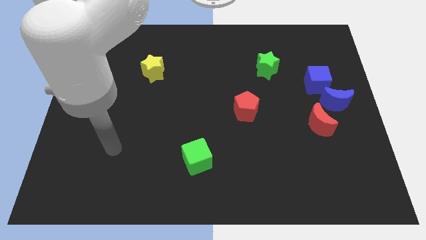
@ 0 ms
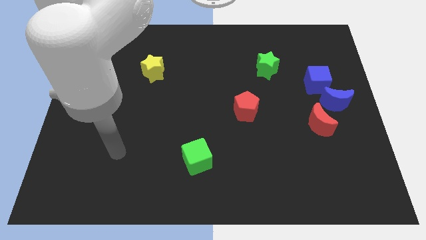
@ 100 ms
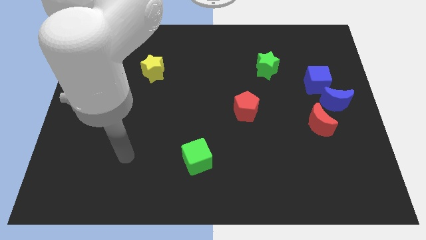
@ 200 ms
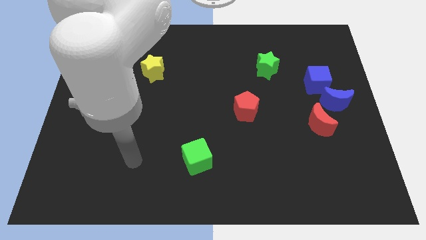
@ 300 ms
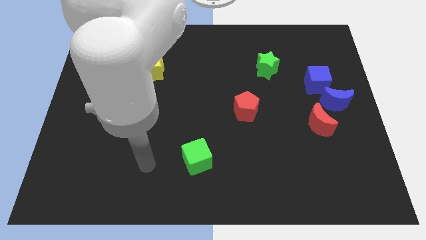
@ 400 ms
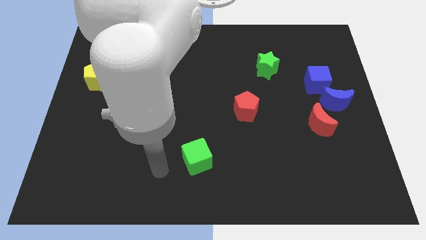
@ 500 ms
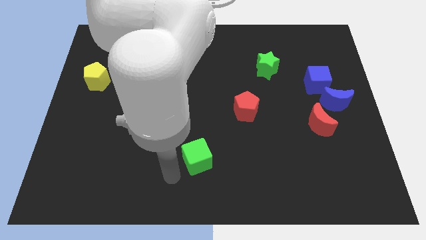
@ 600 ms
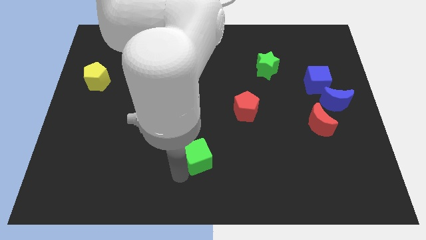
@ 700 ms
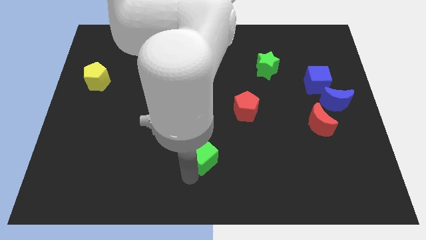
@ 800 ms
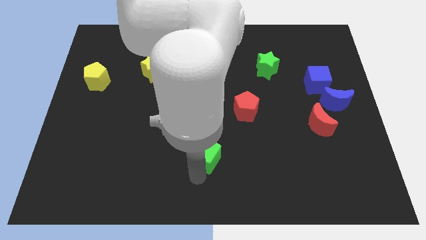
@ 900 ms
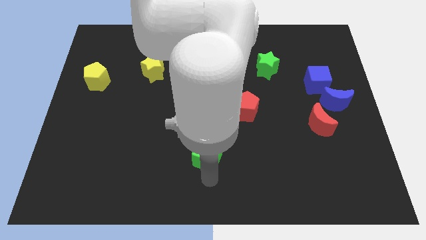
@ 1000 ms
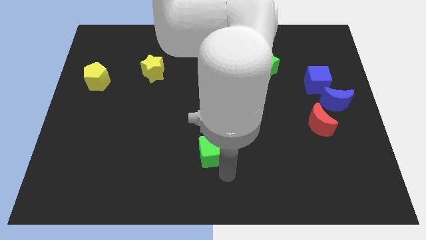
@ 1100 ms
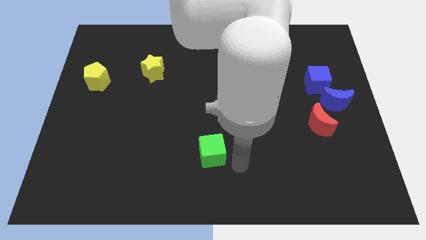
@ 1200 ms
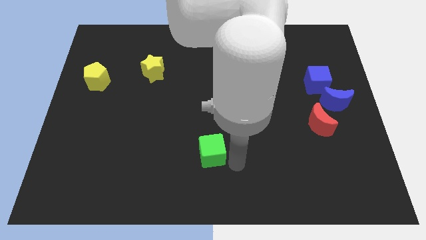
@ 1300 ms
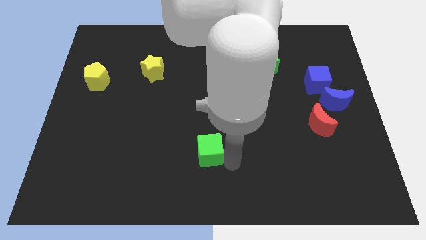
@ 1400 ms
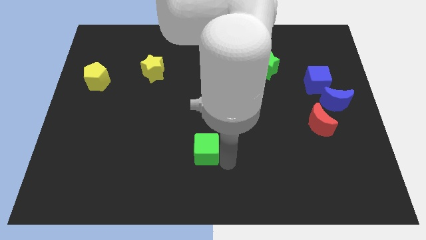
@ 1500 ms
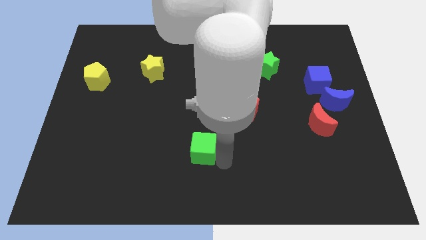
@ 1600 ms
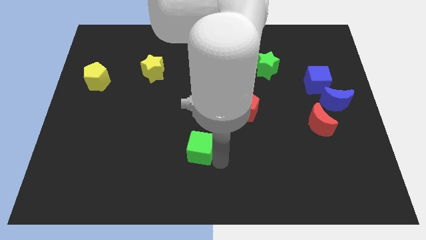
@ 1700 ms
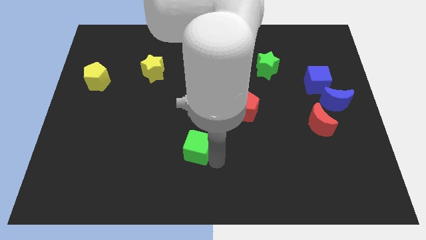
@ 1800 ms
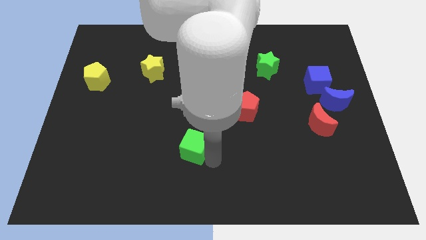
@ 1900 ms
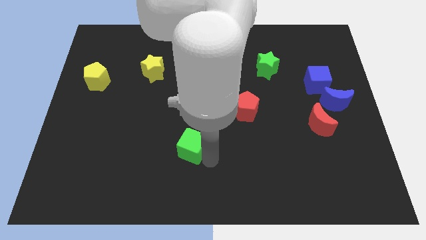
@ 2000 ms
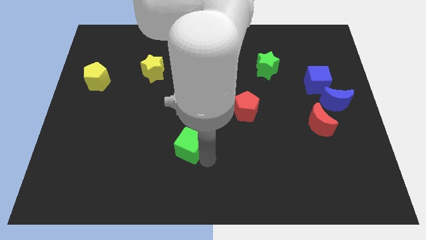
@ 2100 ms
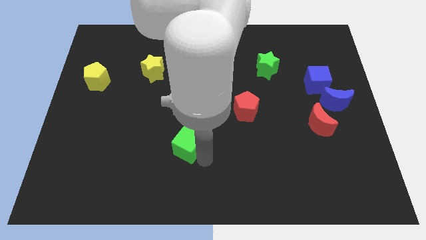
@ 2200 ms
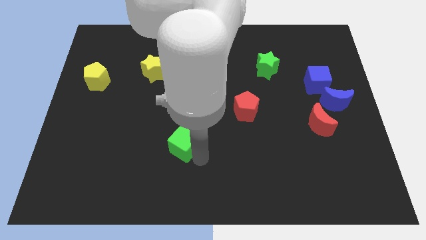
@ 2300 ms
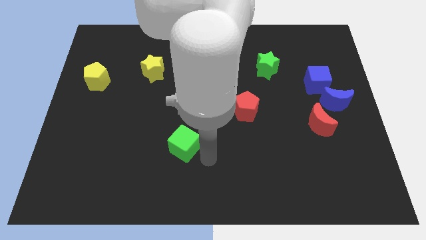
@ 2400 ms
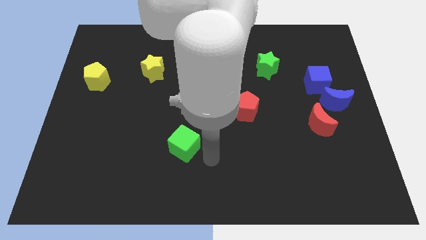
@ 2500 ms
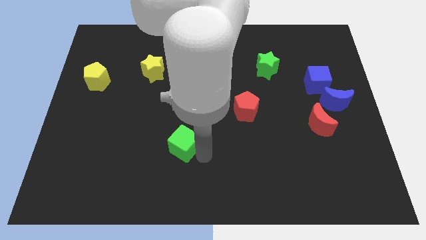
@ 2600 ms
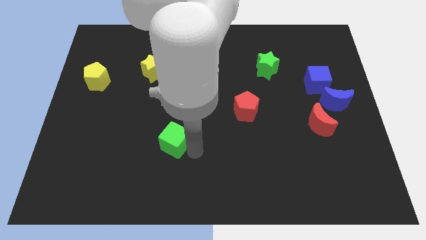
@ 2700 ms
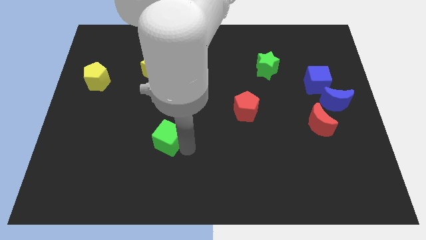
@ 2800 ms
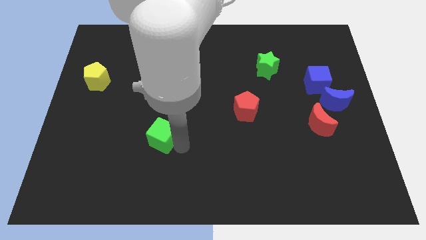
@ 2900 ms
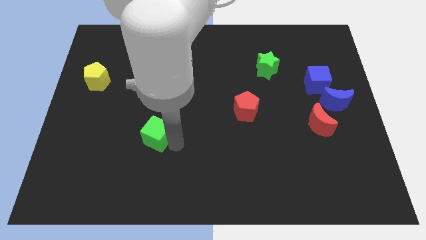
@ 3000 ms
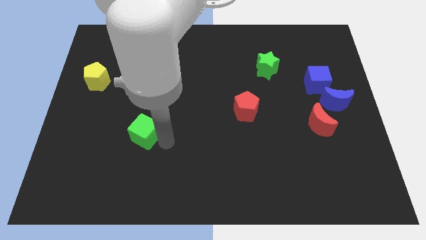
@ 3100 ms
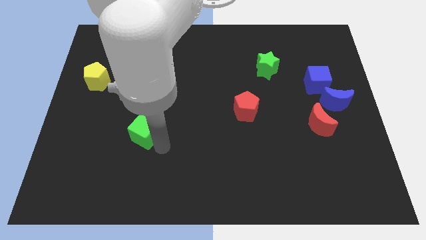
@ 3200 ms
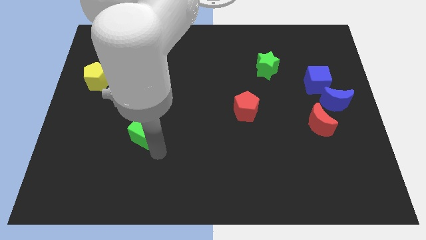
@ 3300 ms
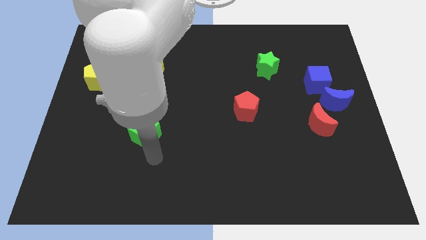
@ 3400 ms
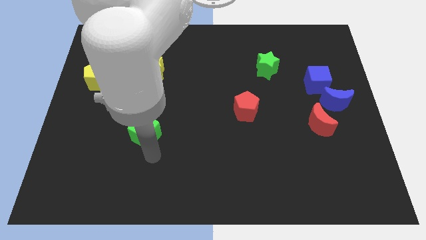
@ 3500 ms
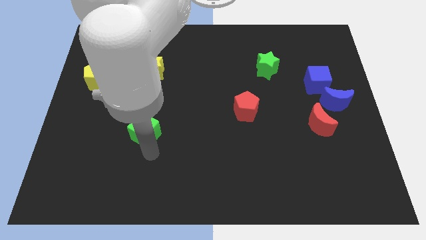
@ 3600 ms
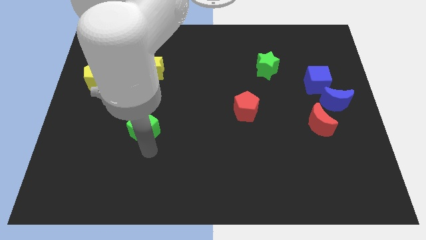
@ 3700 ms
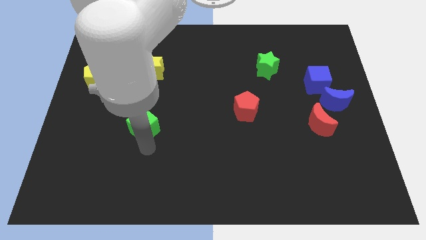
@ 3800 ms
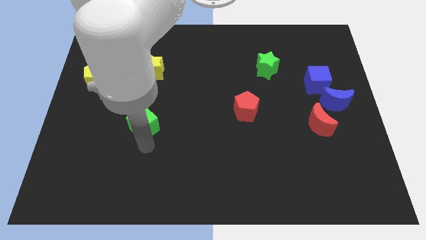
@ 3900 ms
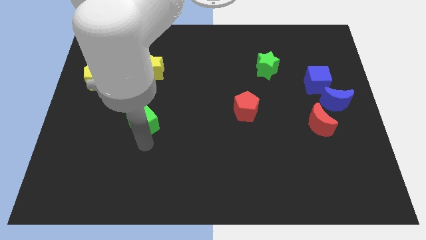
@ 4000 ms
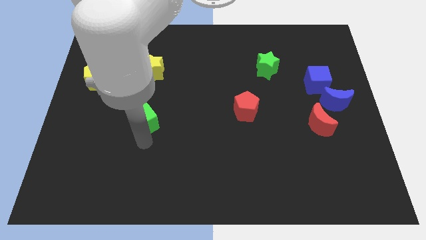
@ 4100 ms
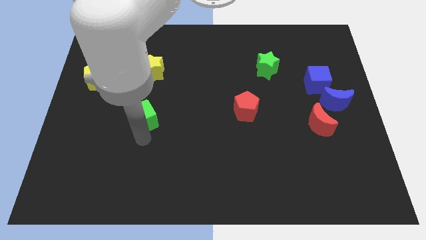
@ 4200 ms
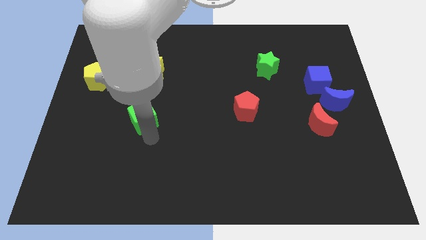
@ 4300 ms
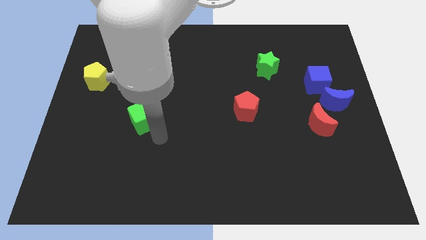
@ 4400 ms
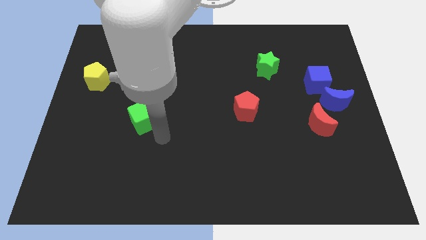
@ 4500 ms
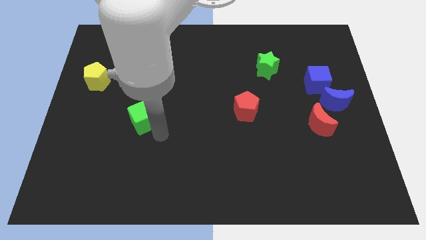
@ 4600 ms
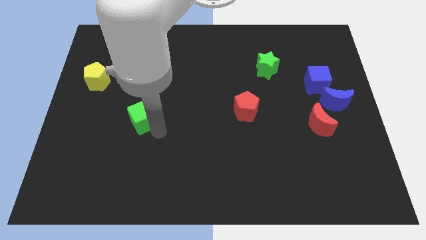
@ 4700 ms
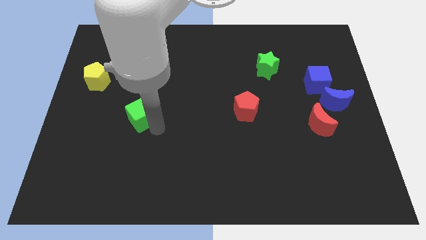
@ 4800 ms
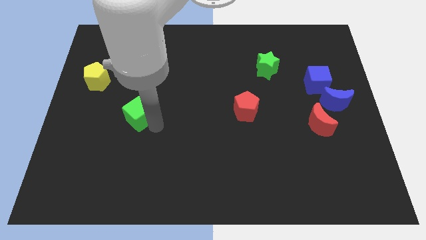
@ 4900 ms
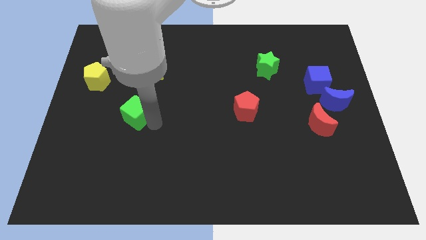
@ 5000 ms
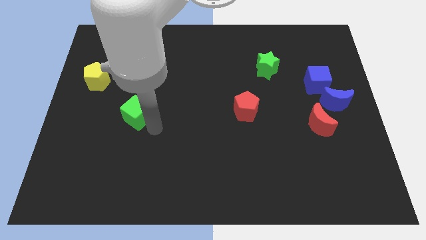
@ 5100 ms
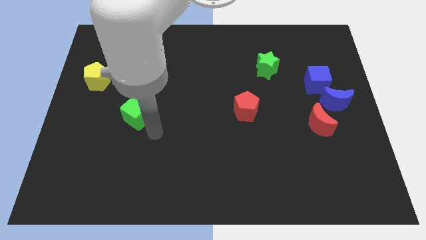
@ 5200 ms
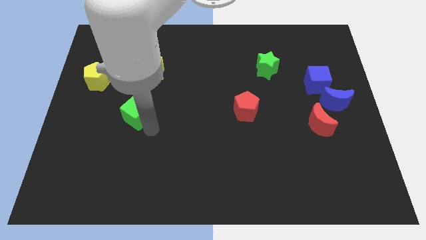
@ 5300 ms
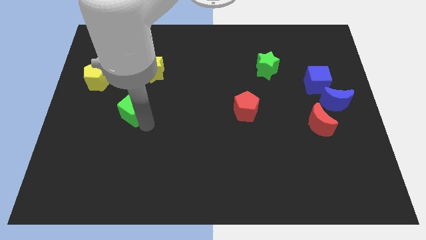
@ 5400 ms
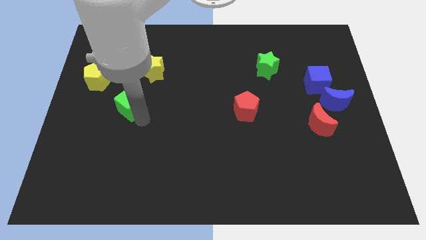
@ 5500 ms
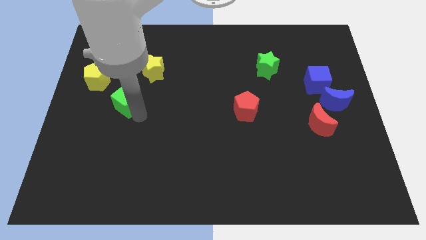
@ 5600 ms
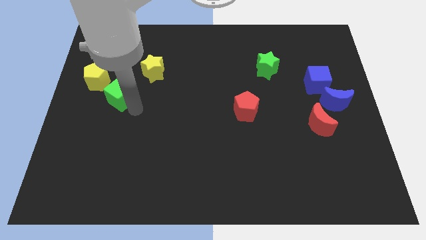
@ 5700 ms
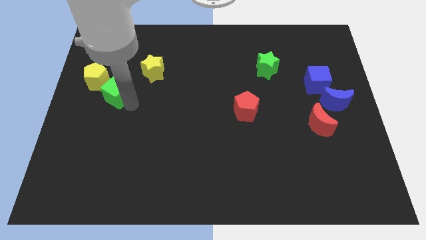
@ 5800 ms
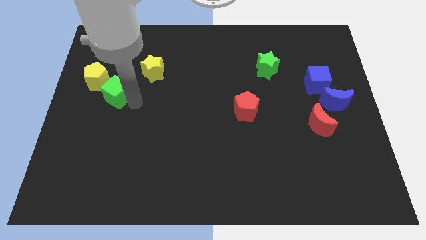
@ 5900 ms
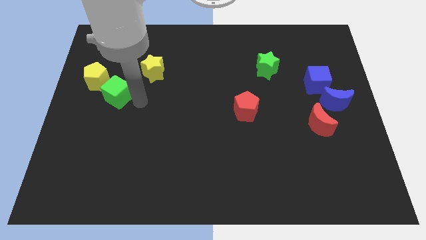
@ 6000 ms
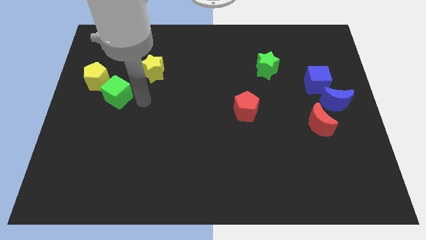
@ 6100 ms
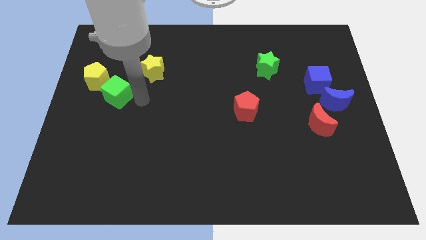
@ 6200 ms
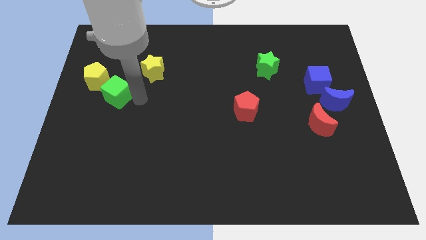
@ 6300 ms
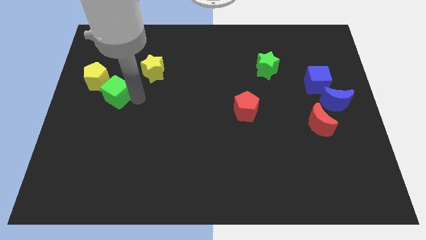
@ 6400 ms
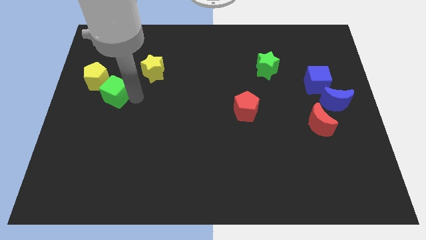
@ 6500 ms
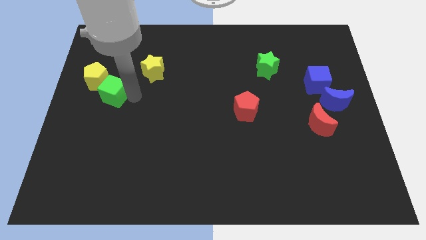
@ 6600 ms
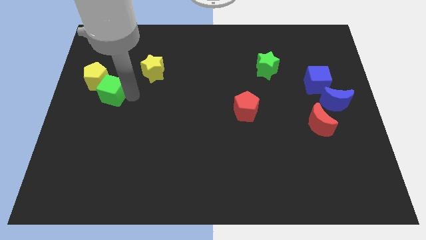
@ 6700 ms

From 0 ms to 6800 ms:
put the green cube close to the yellow pentagon

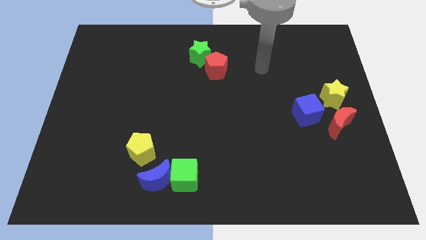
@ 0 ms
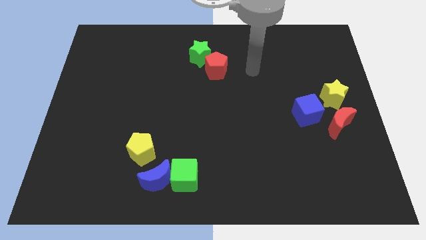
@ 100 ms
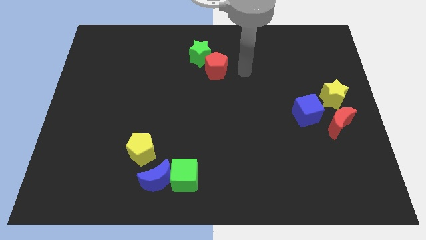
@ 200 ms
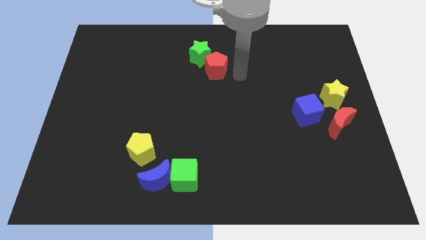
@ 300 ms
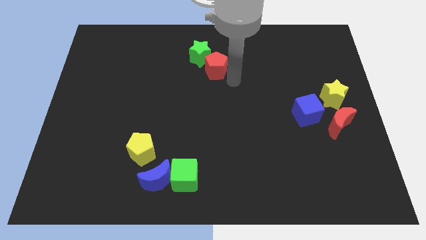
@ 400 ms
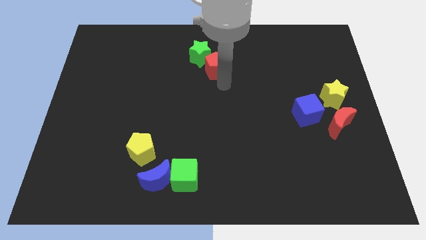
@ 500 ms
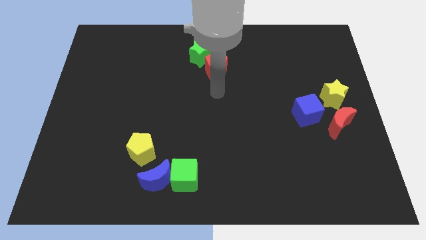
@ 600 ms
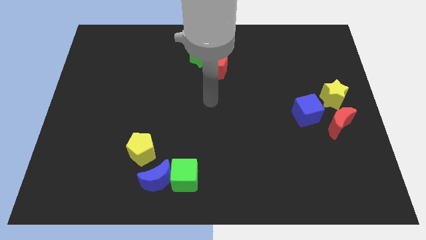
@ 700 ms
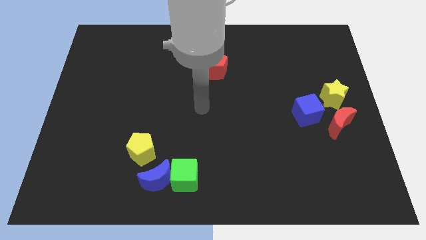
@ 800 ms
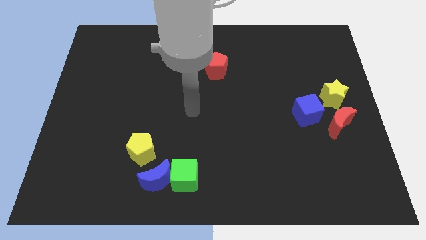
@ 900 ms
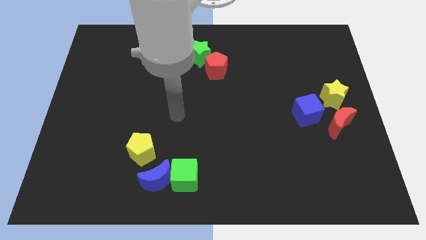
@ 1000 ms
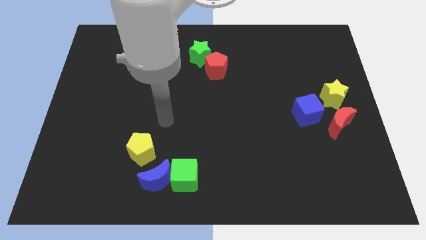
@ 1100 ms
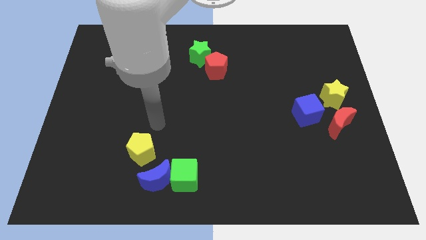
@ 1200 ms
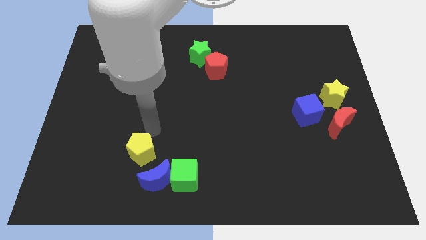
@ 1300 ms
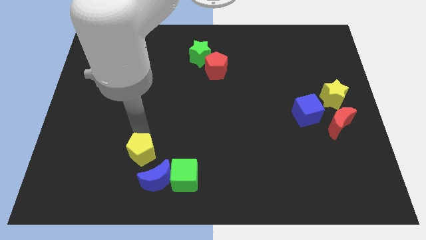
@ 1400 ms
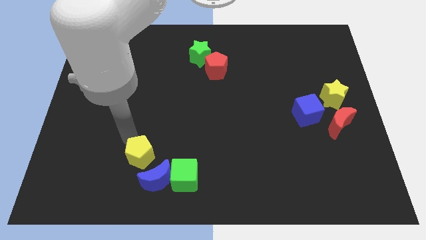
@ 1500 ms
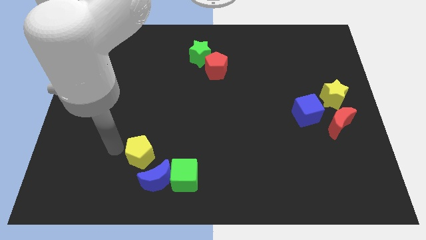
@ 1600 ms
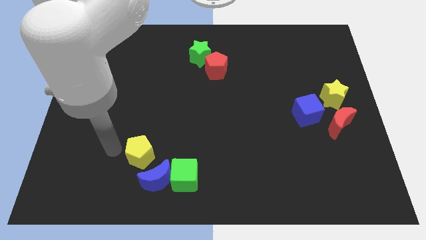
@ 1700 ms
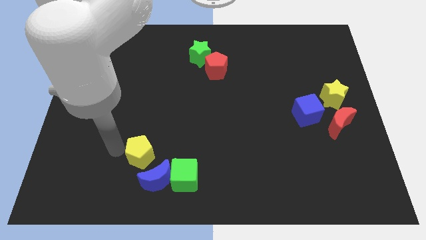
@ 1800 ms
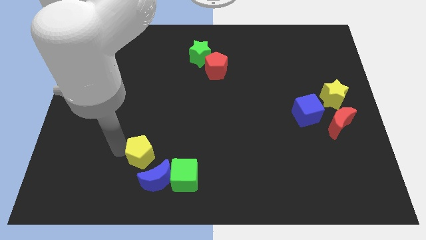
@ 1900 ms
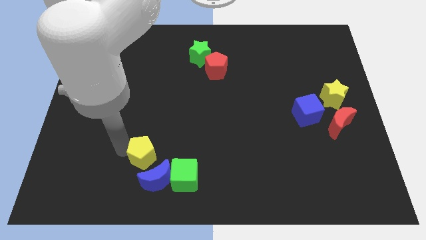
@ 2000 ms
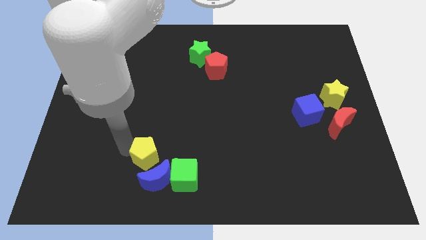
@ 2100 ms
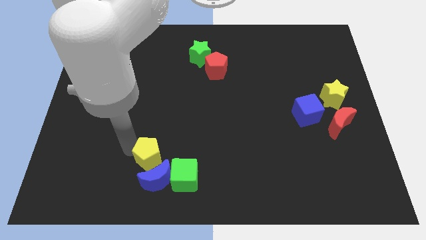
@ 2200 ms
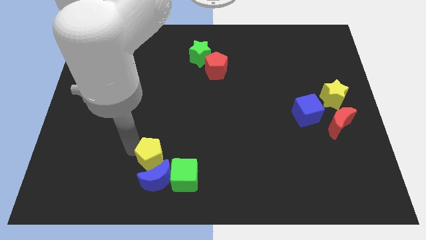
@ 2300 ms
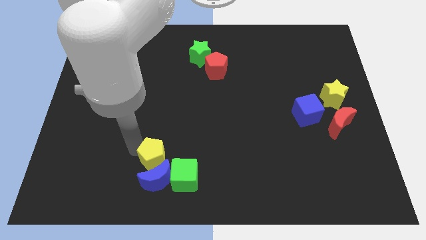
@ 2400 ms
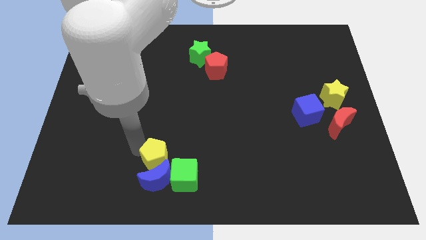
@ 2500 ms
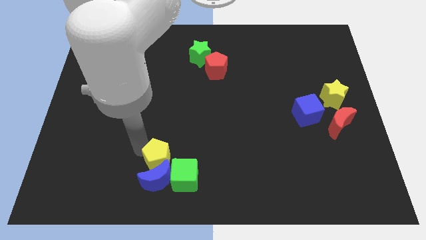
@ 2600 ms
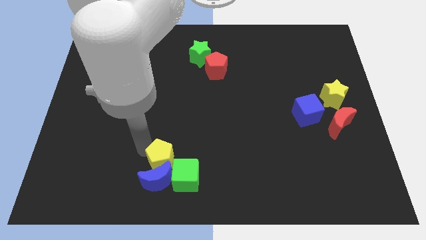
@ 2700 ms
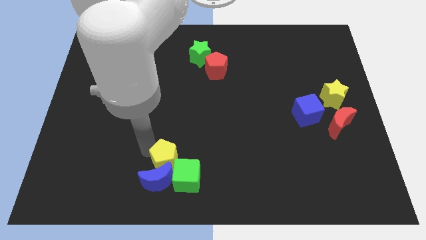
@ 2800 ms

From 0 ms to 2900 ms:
put the yellow pentagon next to the green cube
